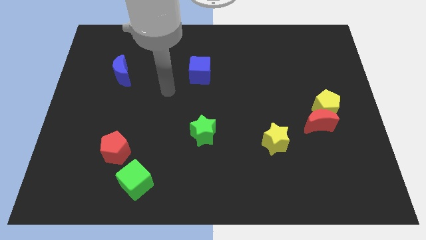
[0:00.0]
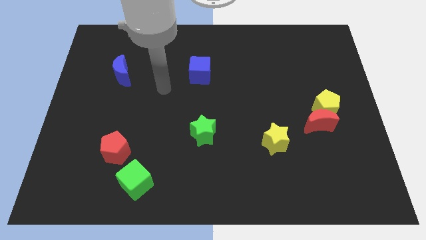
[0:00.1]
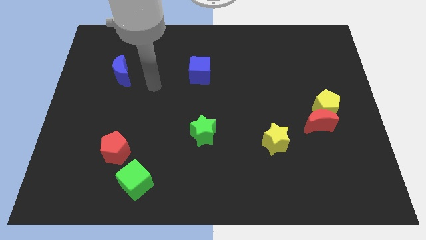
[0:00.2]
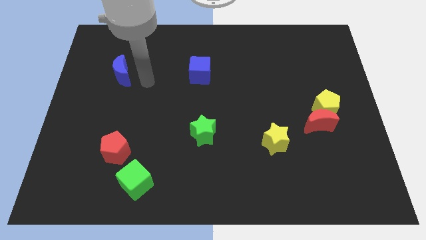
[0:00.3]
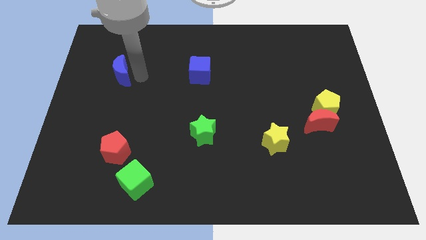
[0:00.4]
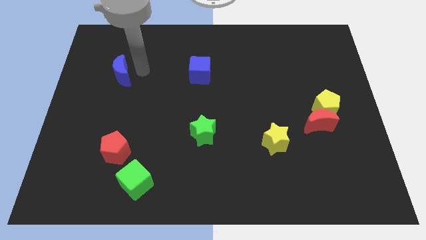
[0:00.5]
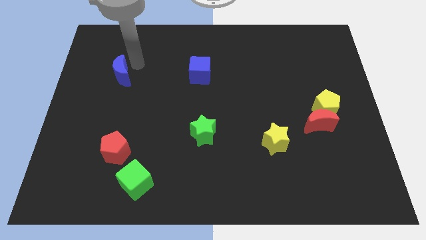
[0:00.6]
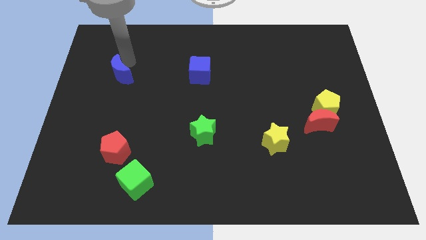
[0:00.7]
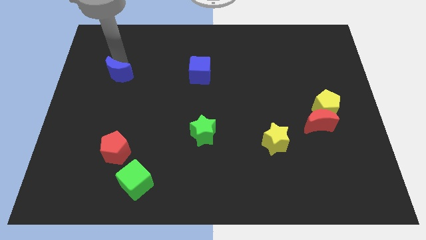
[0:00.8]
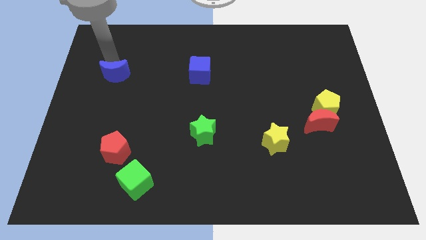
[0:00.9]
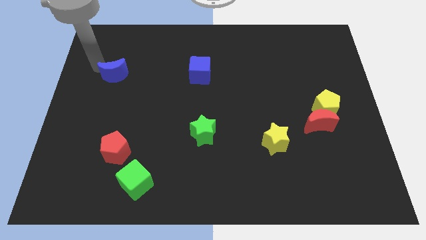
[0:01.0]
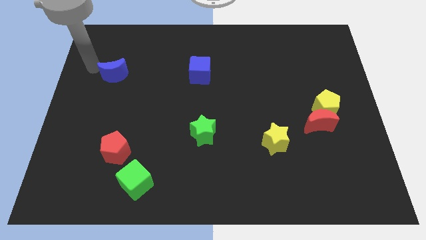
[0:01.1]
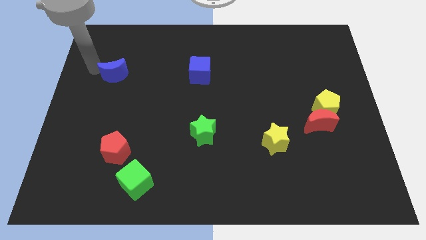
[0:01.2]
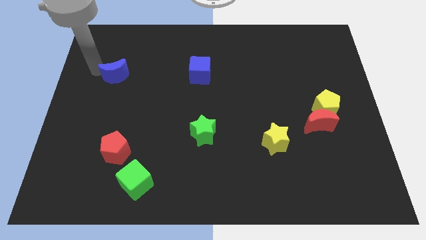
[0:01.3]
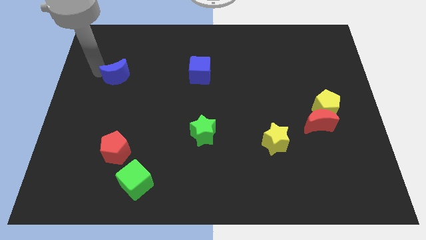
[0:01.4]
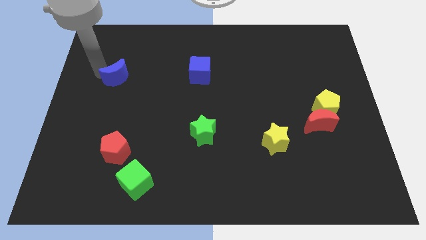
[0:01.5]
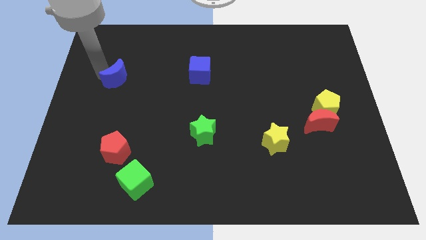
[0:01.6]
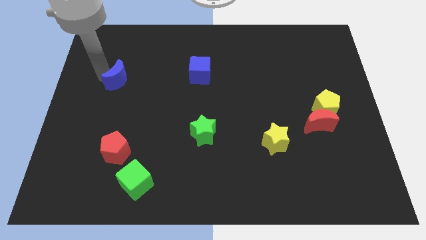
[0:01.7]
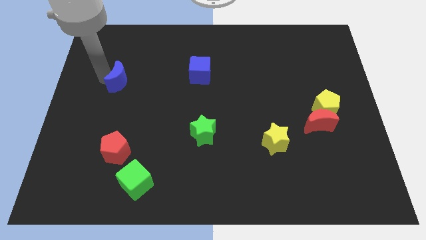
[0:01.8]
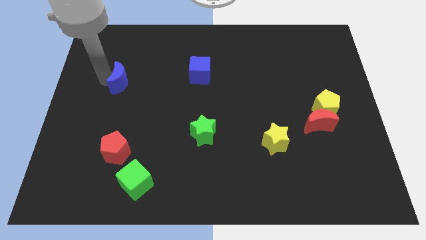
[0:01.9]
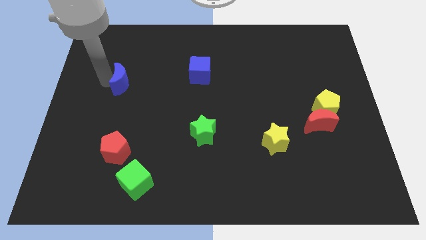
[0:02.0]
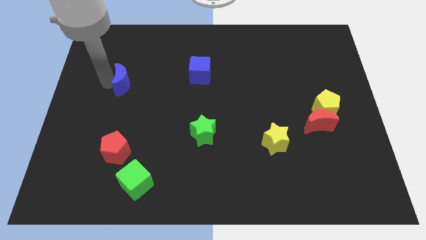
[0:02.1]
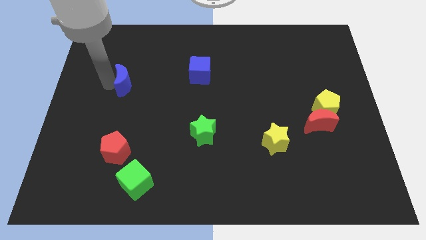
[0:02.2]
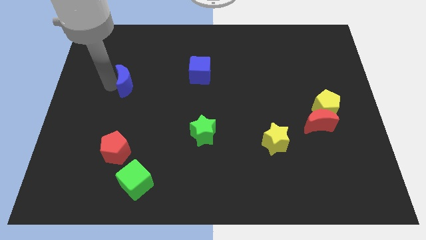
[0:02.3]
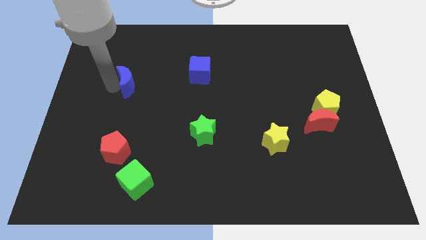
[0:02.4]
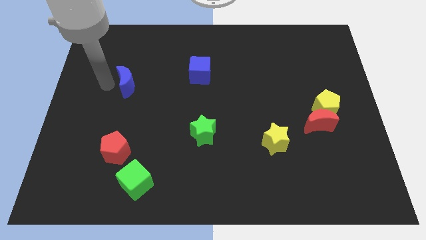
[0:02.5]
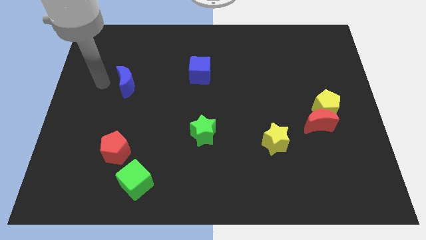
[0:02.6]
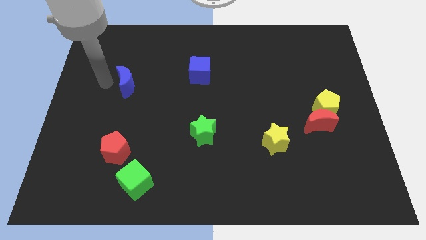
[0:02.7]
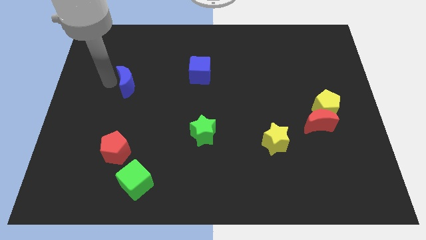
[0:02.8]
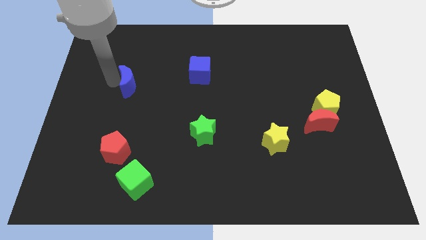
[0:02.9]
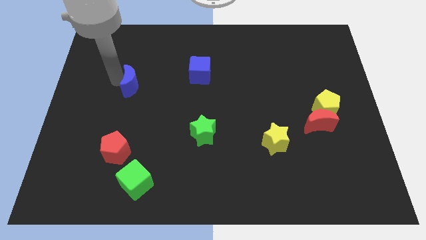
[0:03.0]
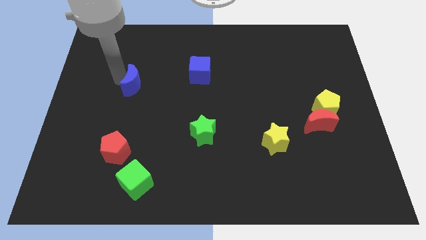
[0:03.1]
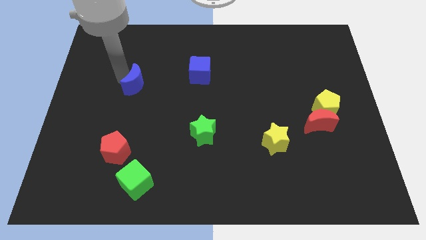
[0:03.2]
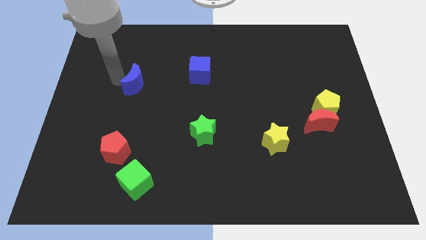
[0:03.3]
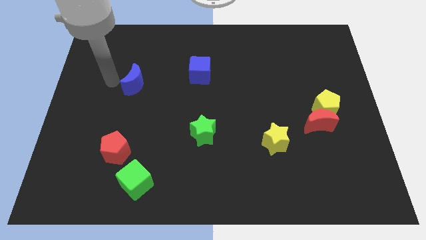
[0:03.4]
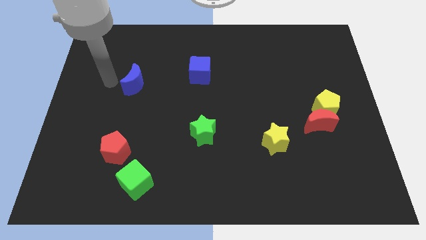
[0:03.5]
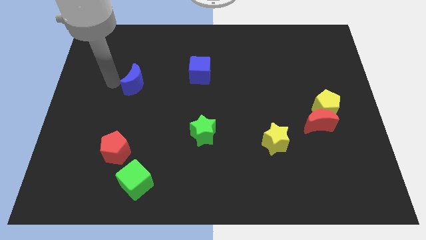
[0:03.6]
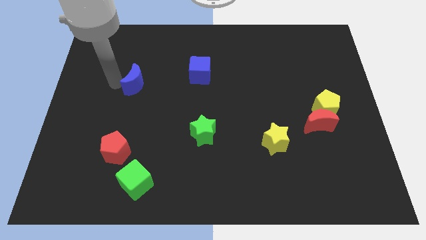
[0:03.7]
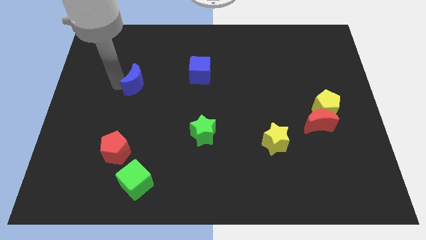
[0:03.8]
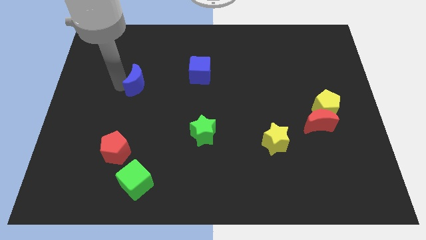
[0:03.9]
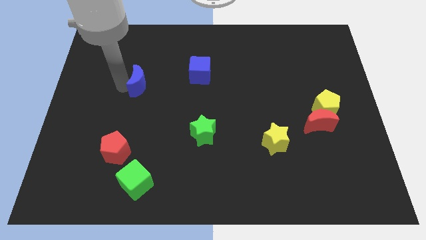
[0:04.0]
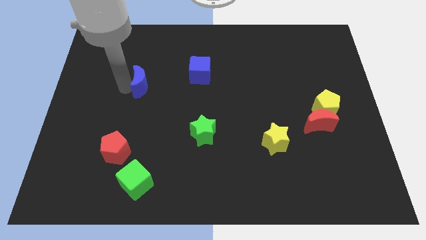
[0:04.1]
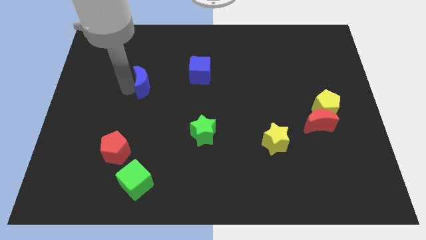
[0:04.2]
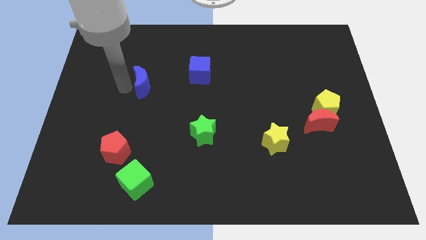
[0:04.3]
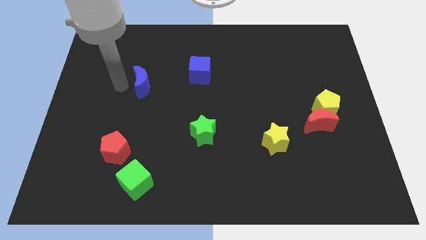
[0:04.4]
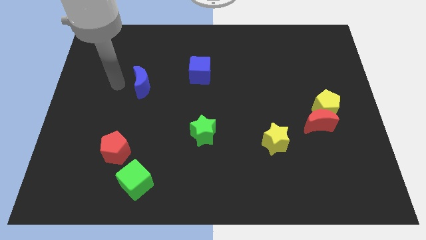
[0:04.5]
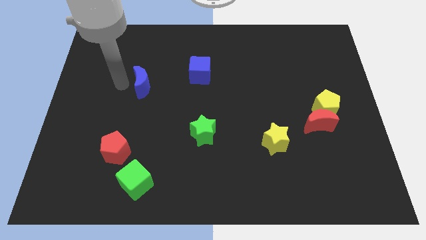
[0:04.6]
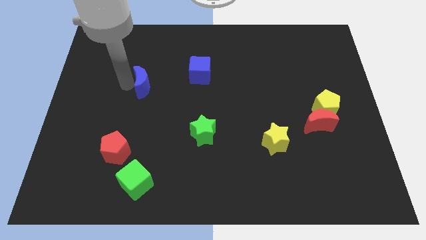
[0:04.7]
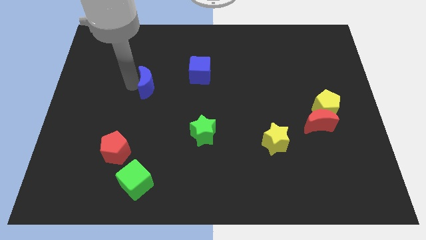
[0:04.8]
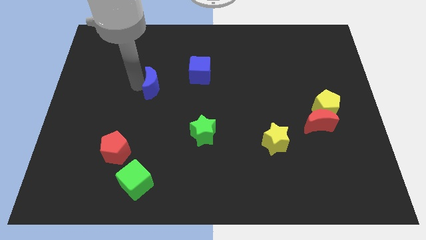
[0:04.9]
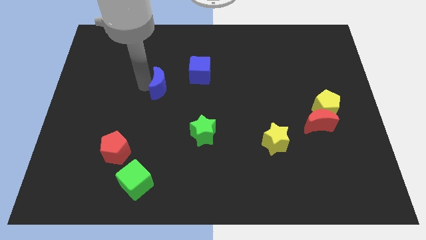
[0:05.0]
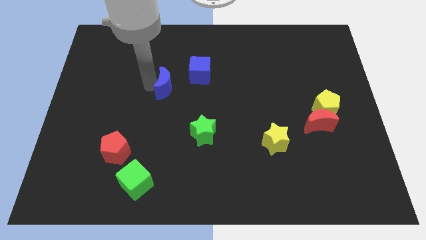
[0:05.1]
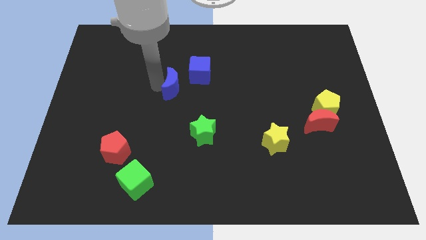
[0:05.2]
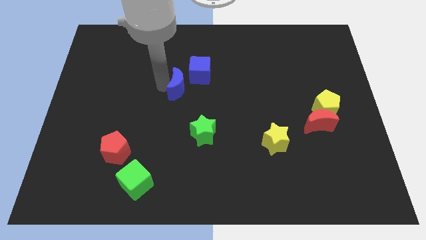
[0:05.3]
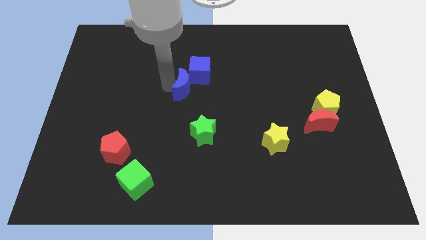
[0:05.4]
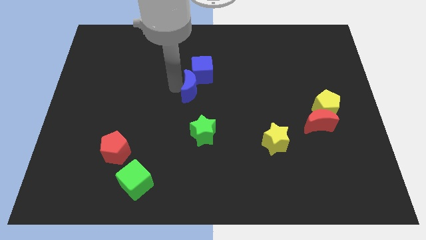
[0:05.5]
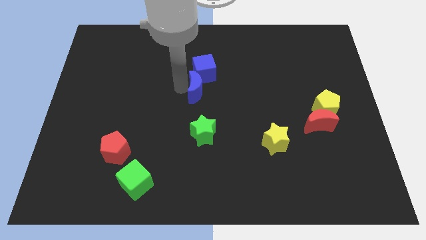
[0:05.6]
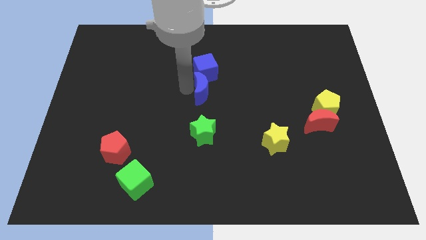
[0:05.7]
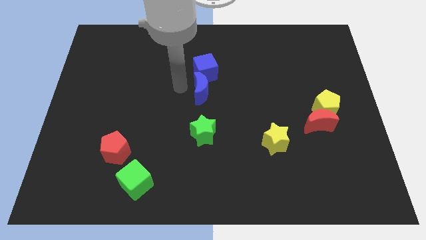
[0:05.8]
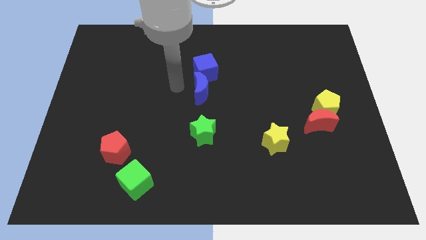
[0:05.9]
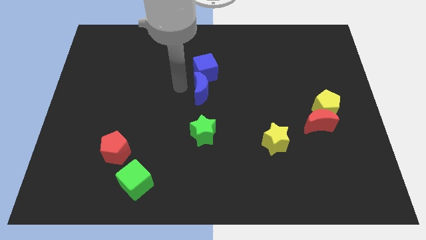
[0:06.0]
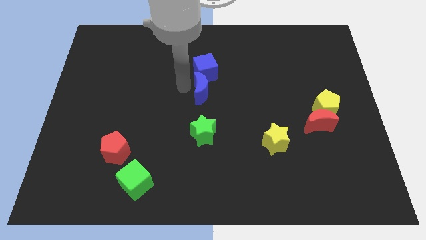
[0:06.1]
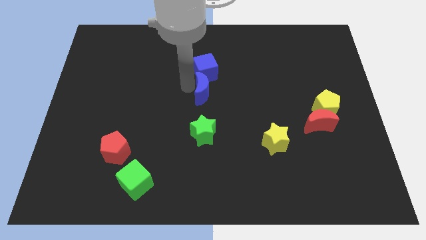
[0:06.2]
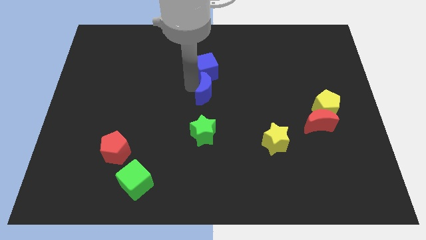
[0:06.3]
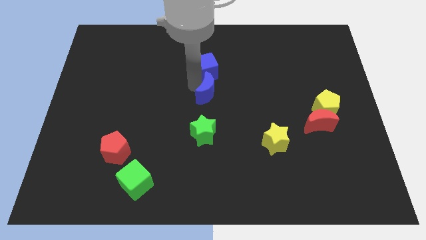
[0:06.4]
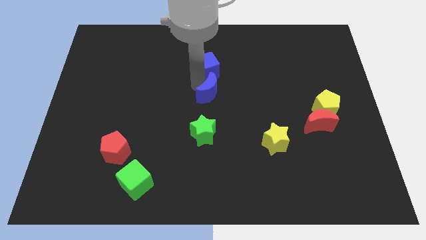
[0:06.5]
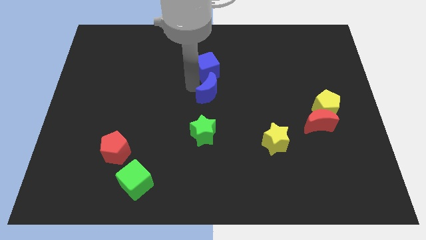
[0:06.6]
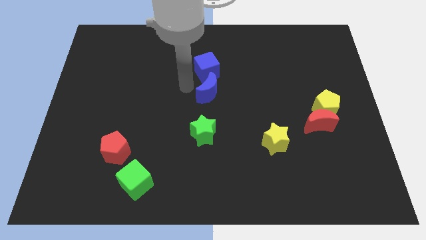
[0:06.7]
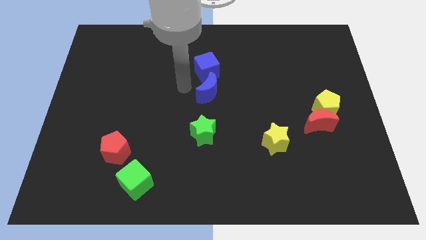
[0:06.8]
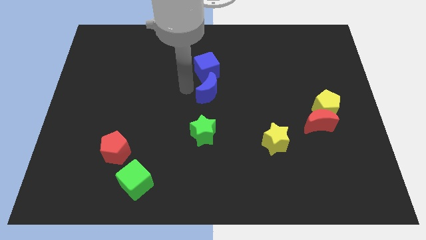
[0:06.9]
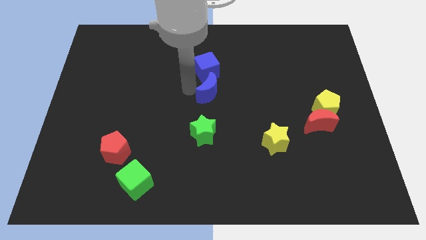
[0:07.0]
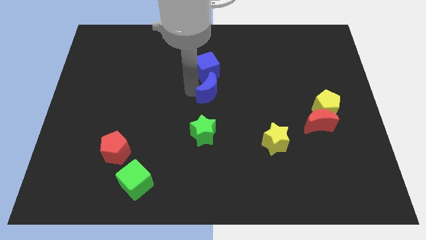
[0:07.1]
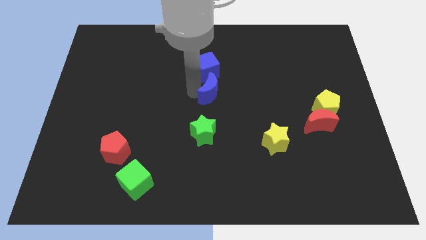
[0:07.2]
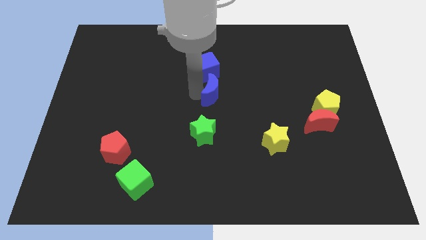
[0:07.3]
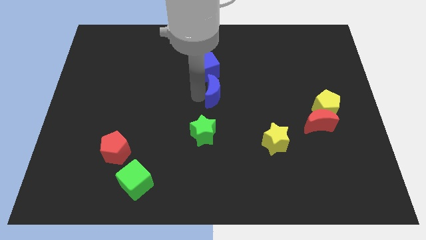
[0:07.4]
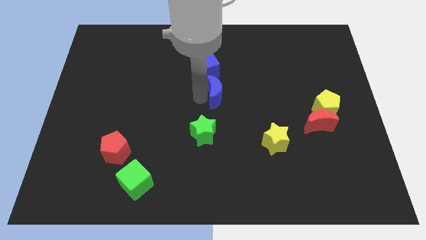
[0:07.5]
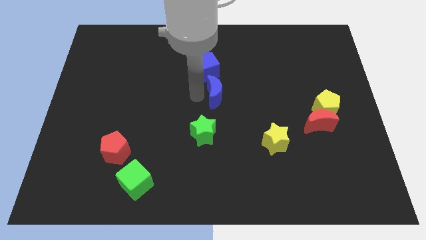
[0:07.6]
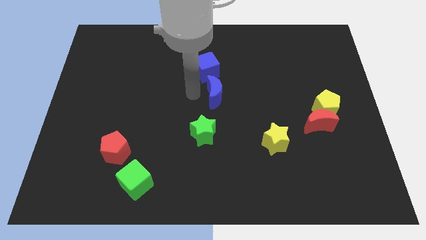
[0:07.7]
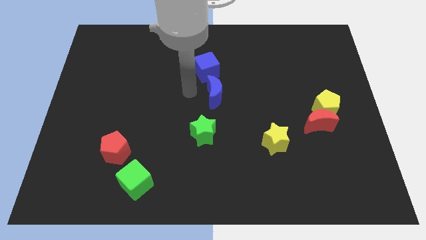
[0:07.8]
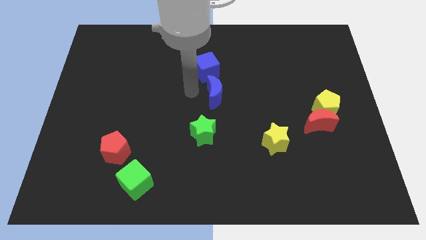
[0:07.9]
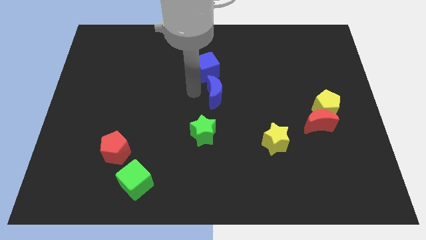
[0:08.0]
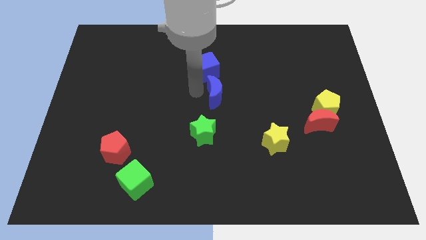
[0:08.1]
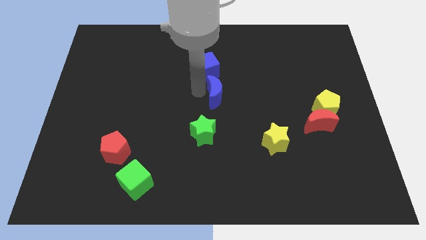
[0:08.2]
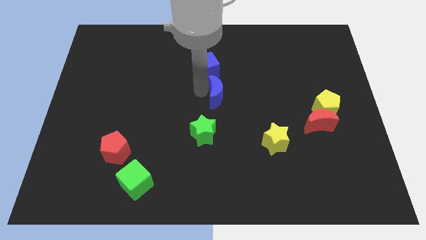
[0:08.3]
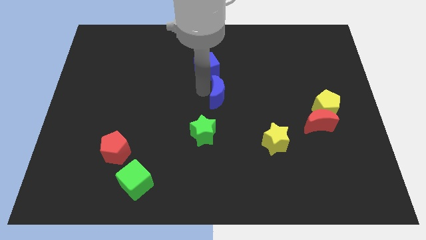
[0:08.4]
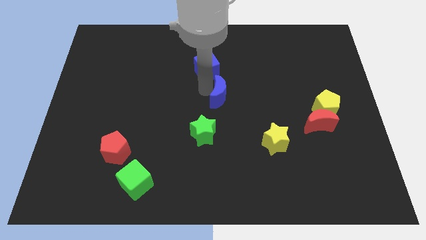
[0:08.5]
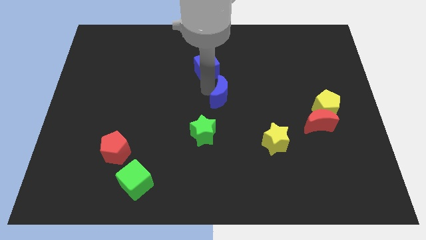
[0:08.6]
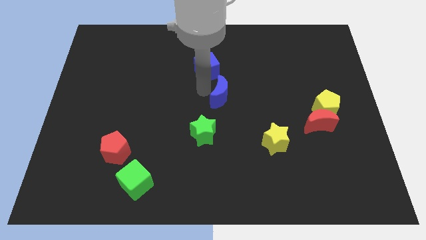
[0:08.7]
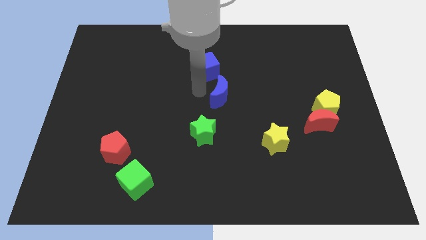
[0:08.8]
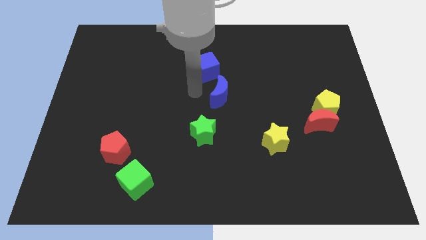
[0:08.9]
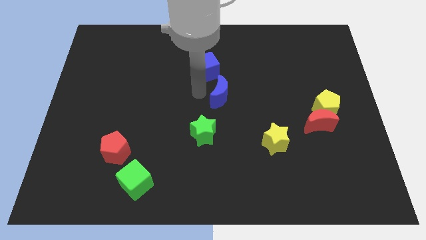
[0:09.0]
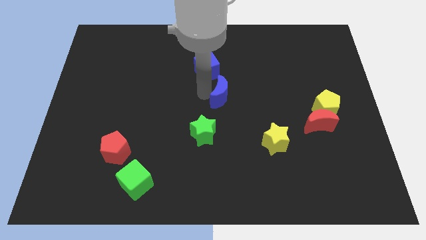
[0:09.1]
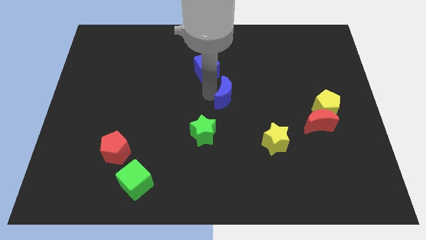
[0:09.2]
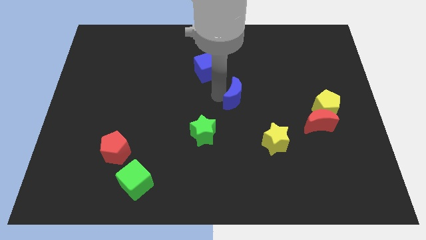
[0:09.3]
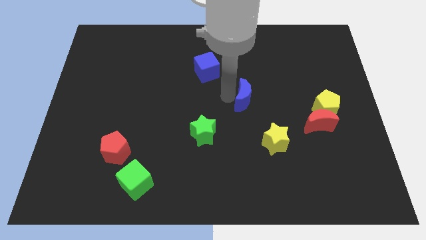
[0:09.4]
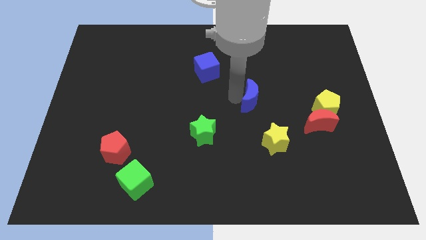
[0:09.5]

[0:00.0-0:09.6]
push the blue moon to the top of the yellow star
